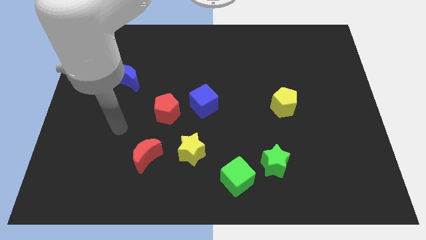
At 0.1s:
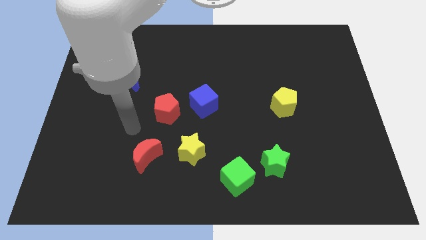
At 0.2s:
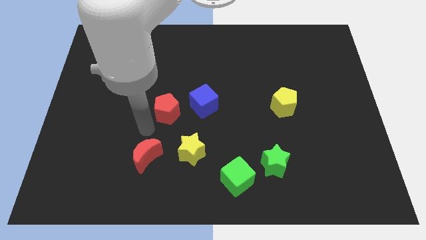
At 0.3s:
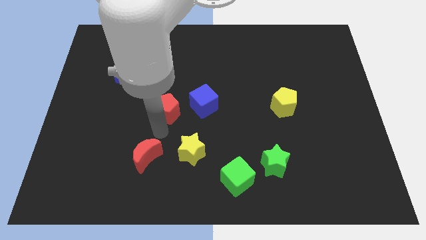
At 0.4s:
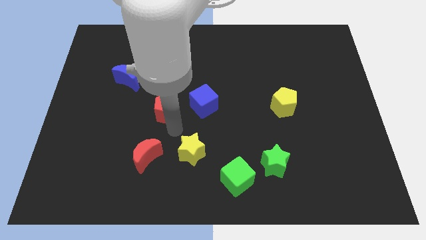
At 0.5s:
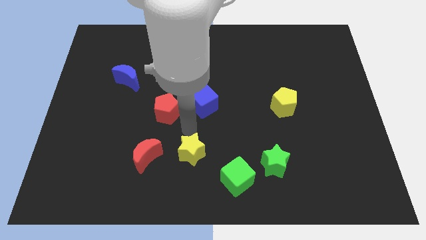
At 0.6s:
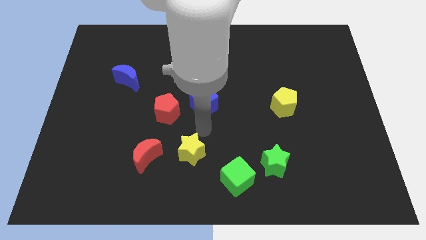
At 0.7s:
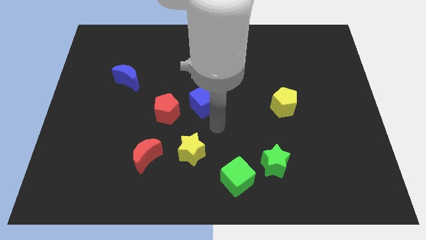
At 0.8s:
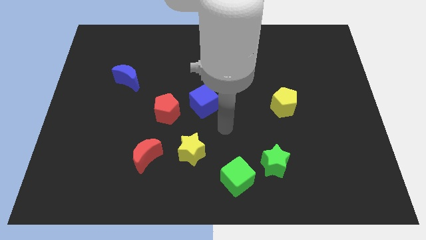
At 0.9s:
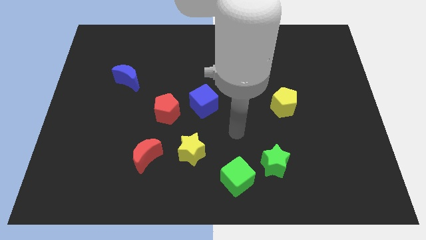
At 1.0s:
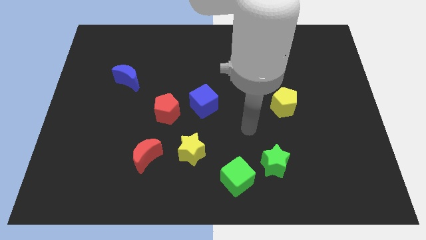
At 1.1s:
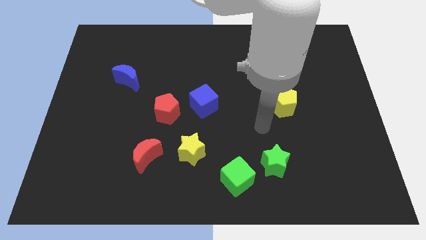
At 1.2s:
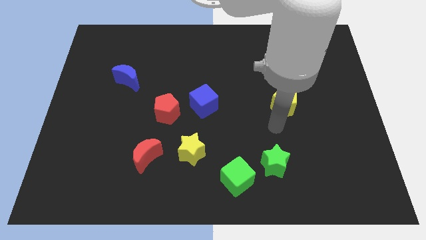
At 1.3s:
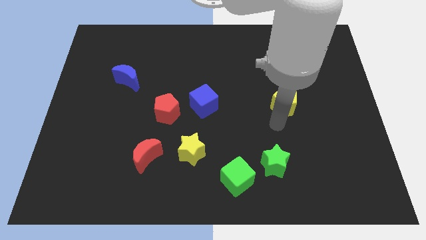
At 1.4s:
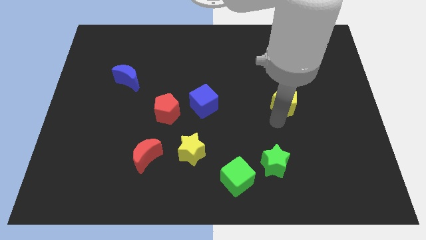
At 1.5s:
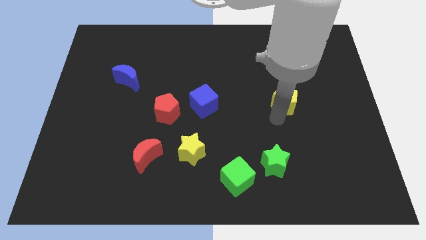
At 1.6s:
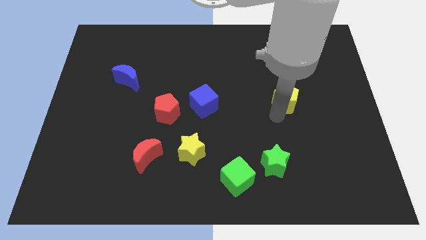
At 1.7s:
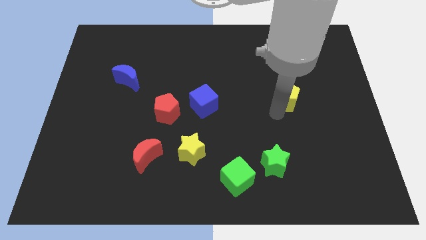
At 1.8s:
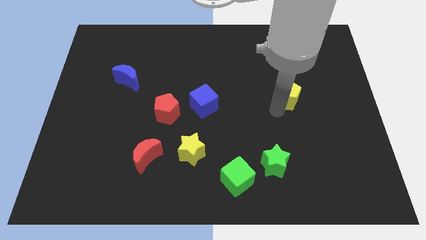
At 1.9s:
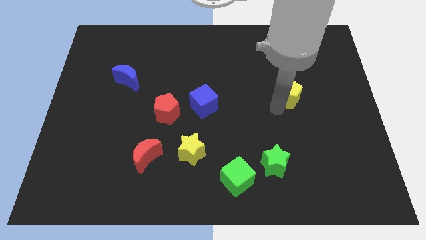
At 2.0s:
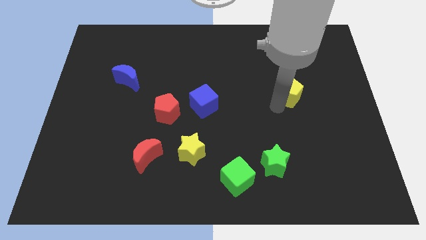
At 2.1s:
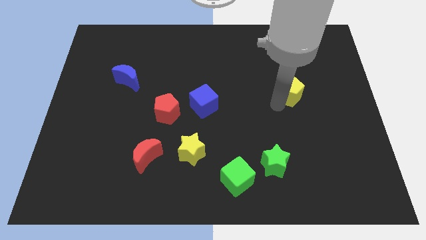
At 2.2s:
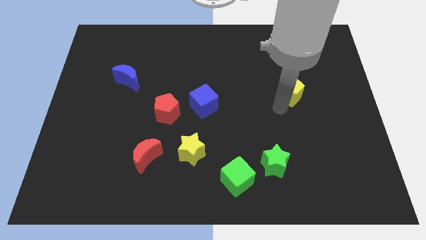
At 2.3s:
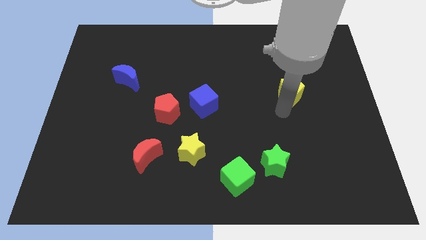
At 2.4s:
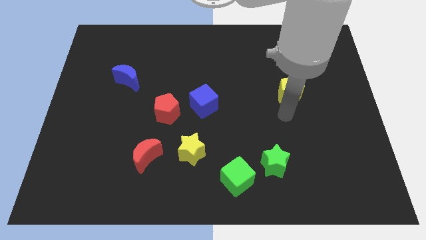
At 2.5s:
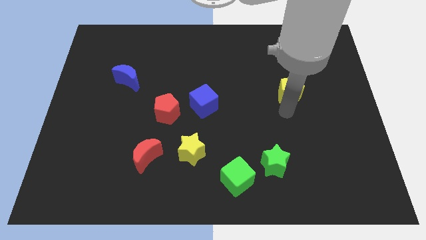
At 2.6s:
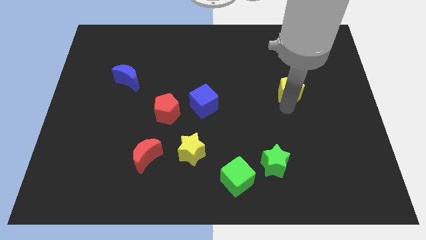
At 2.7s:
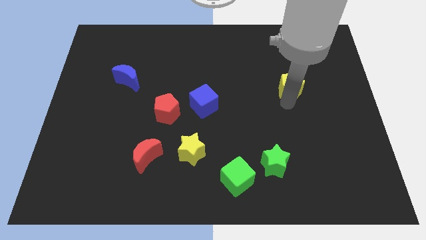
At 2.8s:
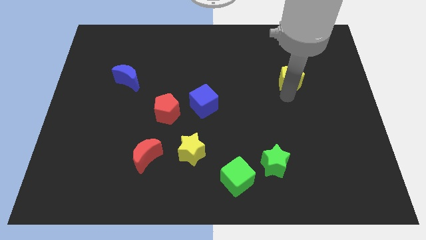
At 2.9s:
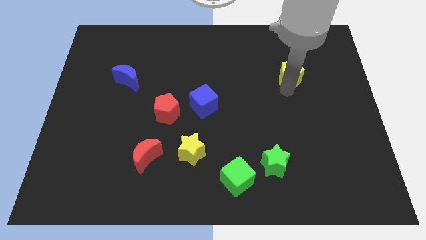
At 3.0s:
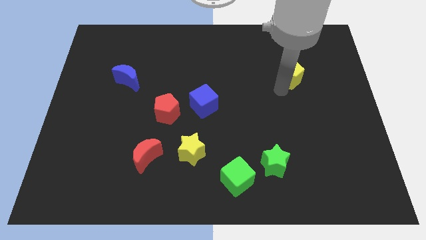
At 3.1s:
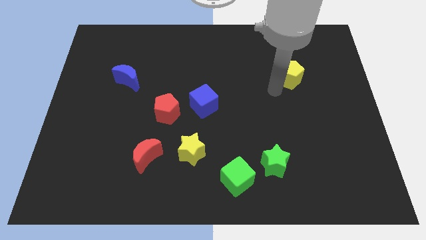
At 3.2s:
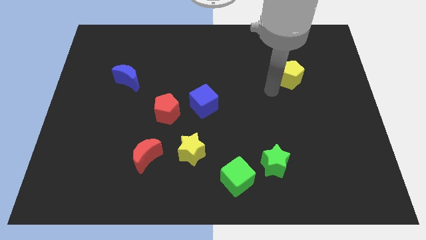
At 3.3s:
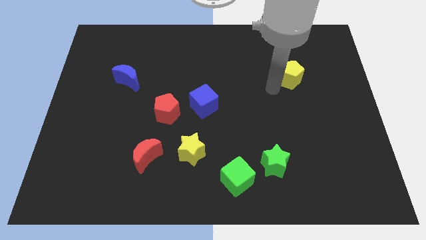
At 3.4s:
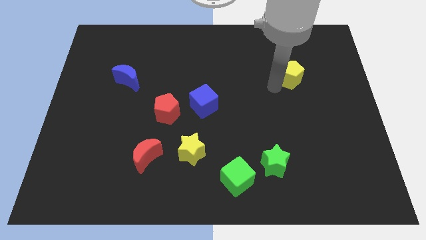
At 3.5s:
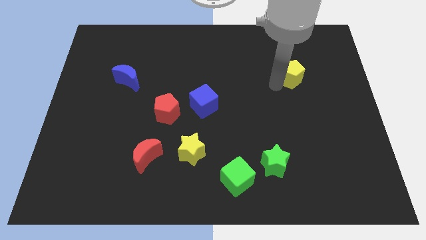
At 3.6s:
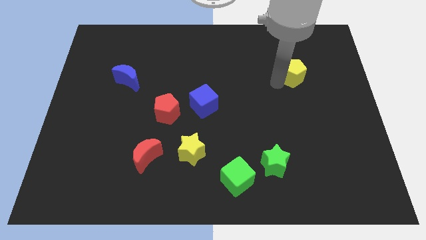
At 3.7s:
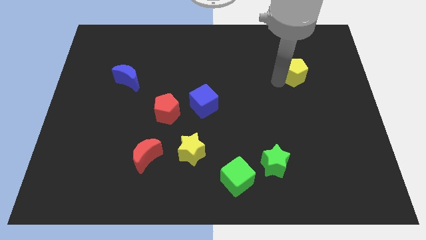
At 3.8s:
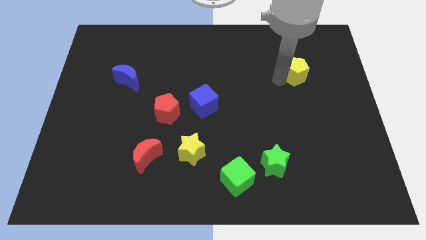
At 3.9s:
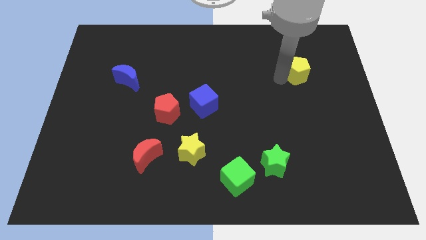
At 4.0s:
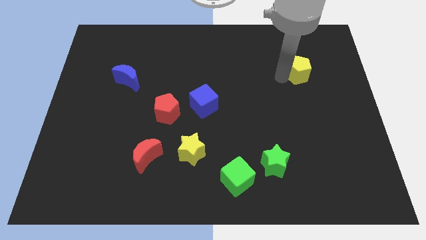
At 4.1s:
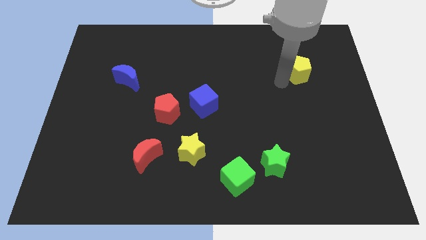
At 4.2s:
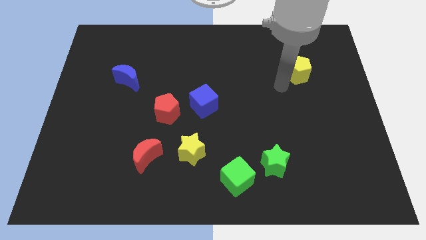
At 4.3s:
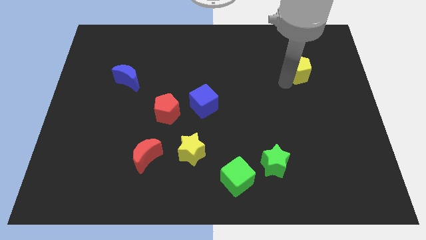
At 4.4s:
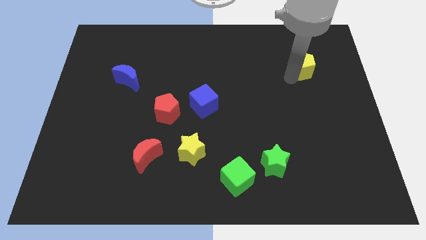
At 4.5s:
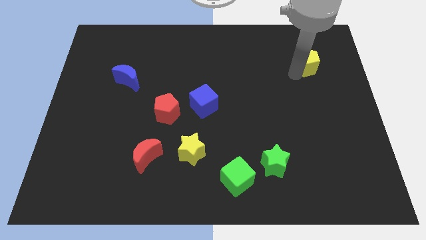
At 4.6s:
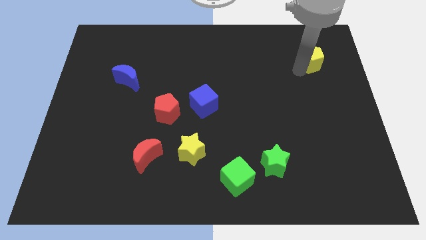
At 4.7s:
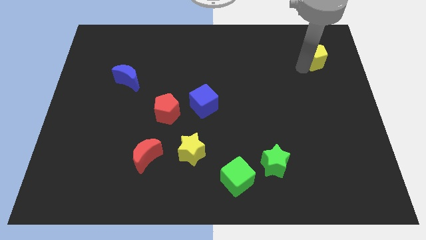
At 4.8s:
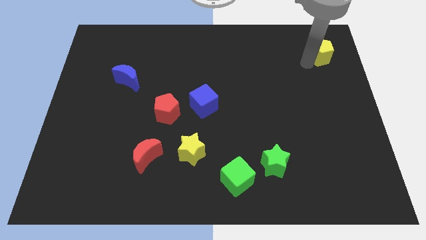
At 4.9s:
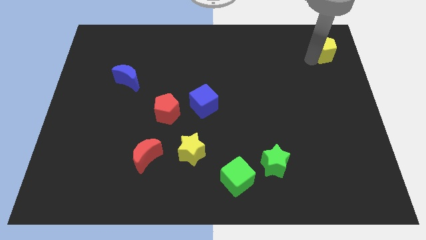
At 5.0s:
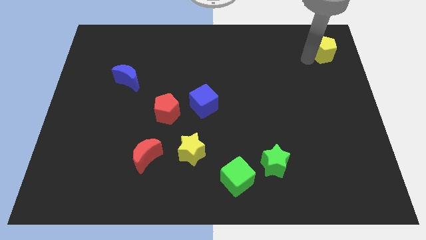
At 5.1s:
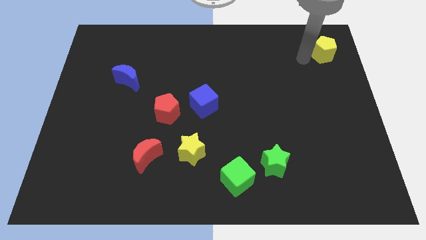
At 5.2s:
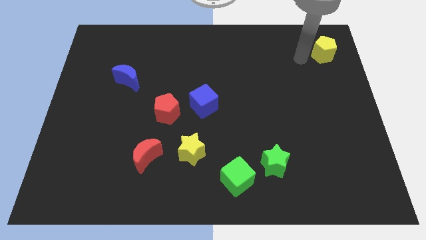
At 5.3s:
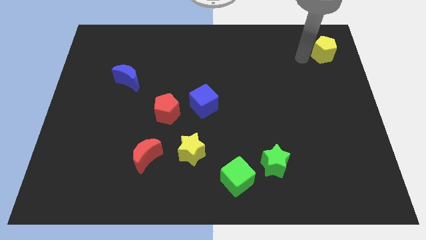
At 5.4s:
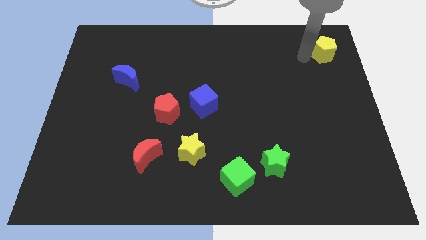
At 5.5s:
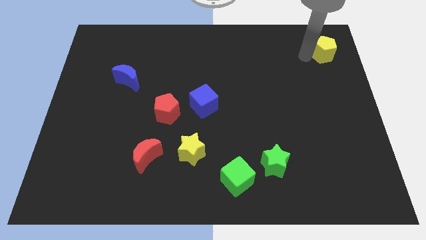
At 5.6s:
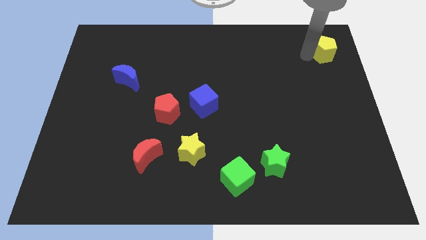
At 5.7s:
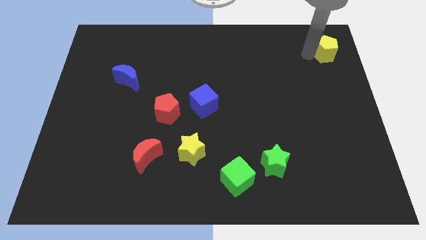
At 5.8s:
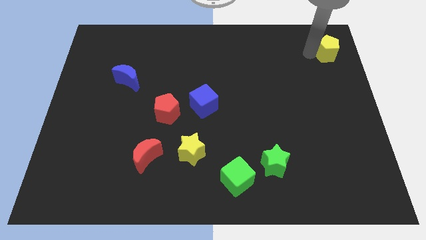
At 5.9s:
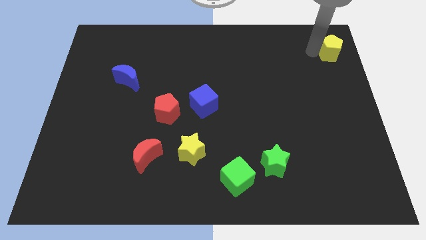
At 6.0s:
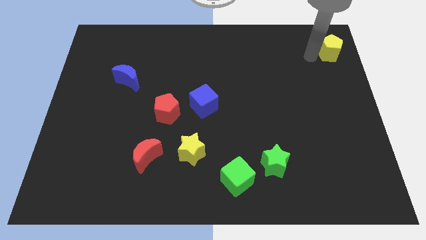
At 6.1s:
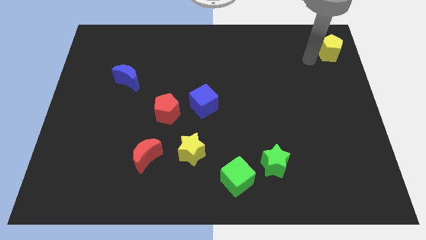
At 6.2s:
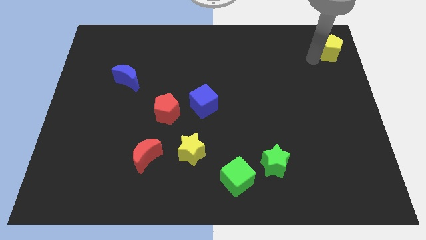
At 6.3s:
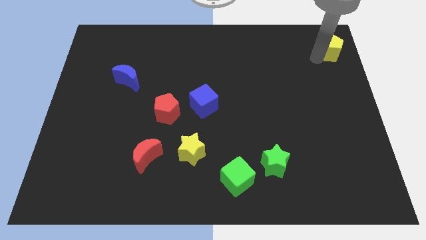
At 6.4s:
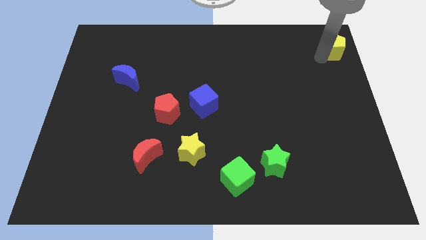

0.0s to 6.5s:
move the yellow pentagon to the top right

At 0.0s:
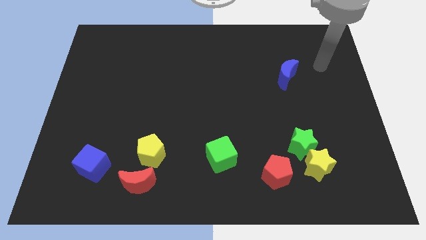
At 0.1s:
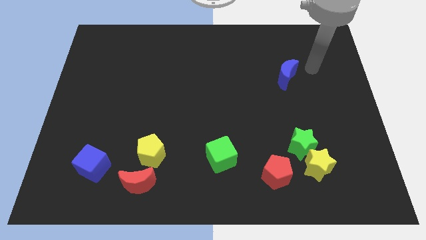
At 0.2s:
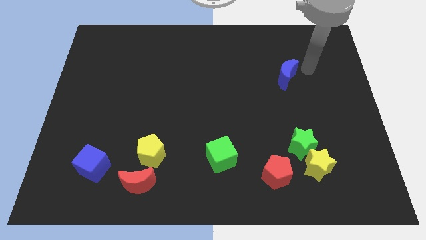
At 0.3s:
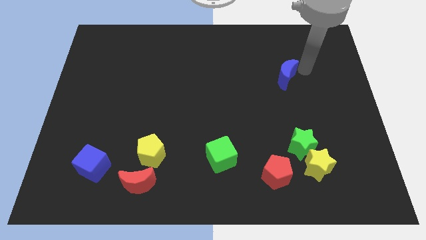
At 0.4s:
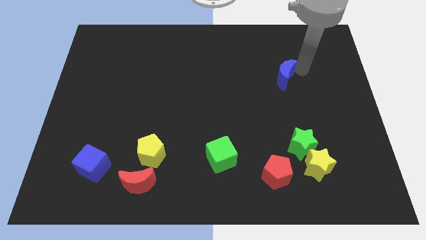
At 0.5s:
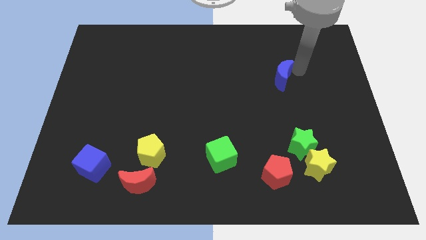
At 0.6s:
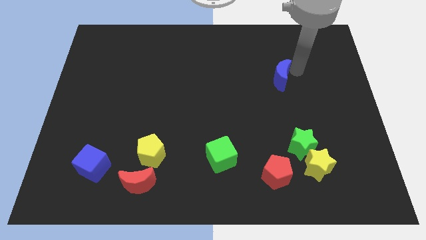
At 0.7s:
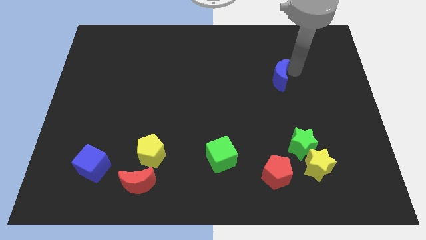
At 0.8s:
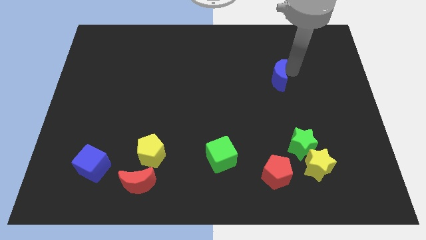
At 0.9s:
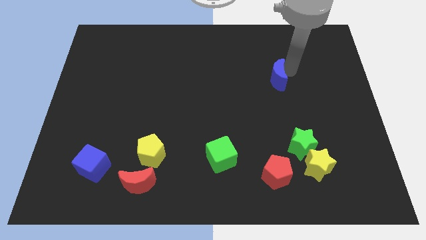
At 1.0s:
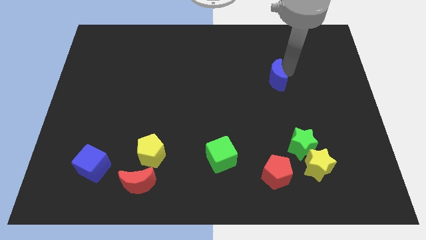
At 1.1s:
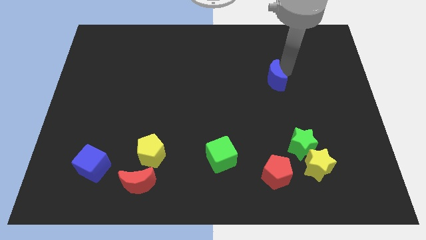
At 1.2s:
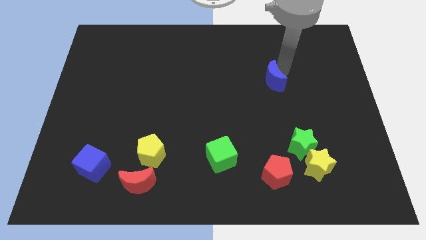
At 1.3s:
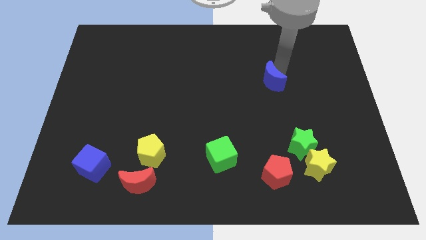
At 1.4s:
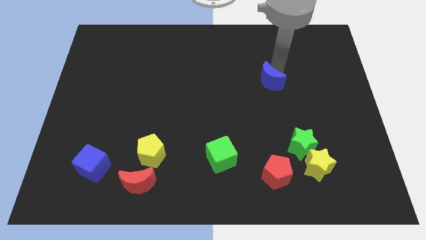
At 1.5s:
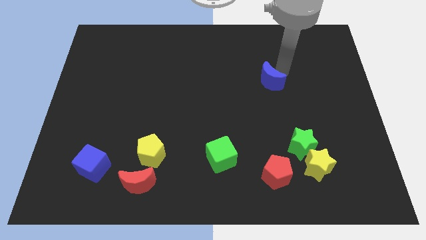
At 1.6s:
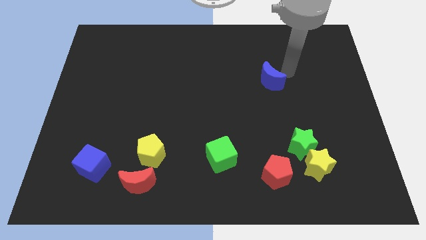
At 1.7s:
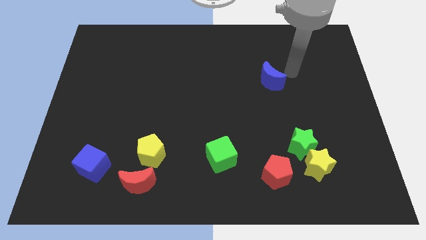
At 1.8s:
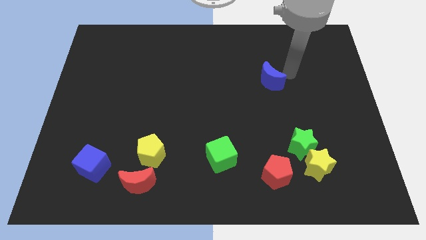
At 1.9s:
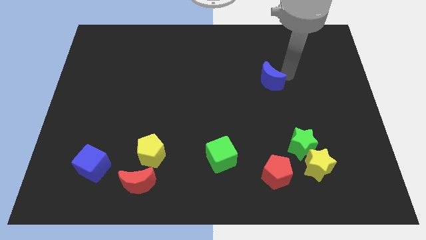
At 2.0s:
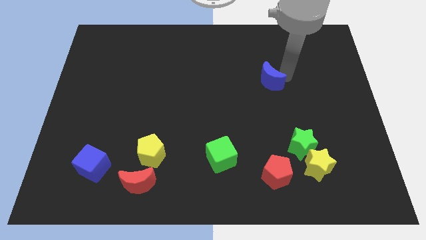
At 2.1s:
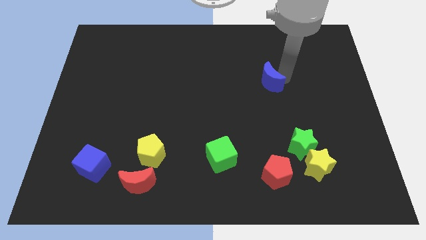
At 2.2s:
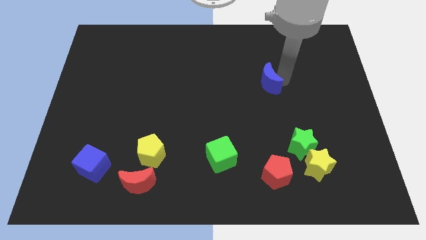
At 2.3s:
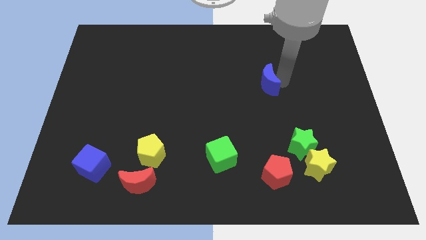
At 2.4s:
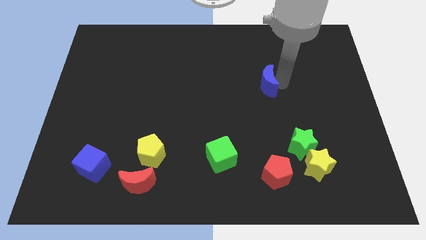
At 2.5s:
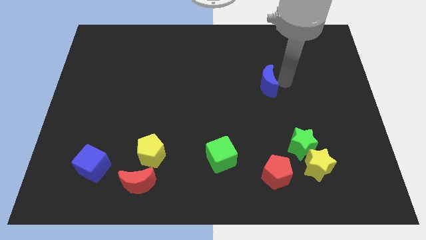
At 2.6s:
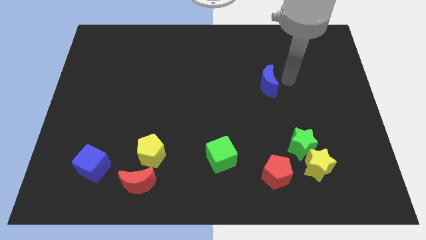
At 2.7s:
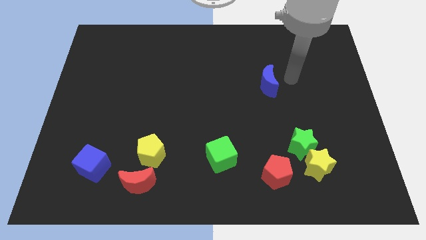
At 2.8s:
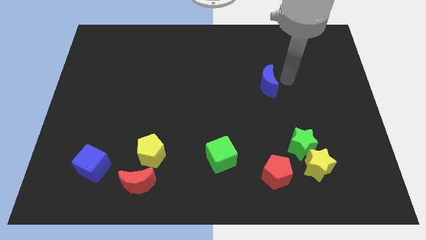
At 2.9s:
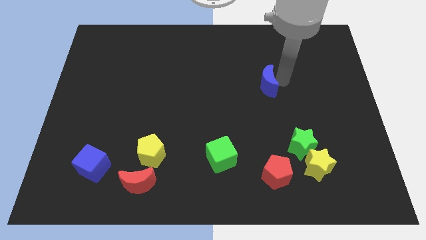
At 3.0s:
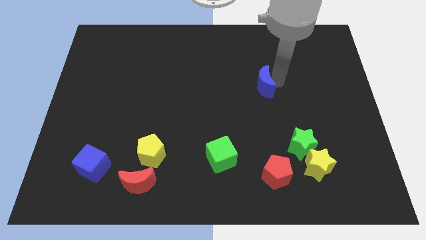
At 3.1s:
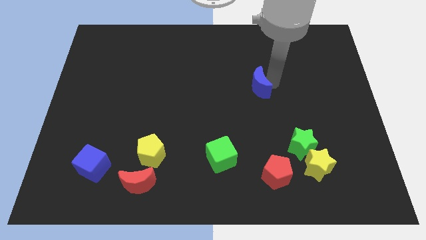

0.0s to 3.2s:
move the blue moon to the center
